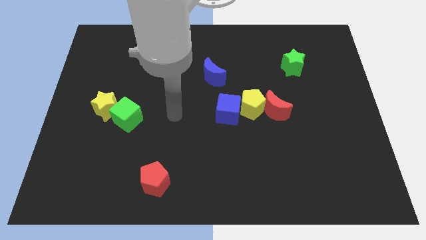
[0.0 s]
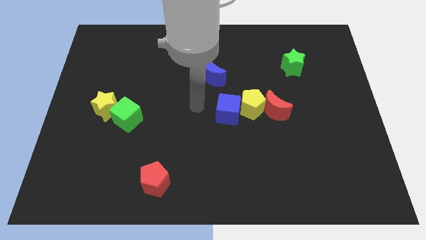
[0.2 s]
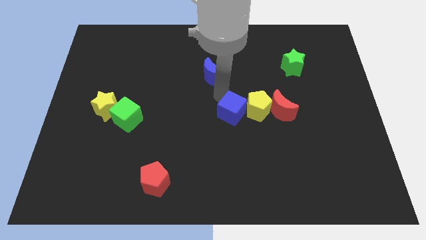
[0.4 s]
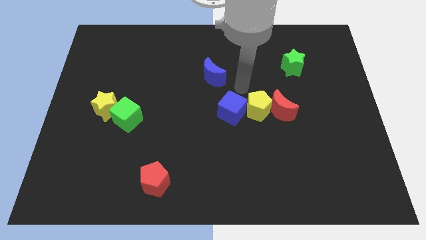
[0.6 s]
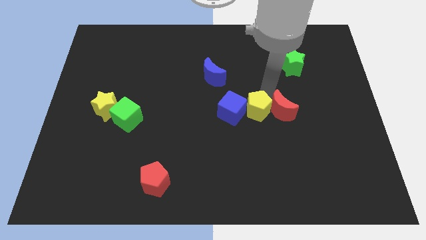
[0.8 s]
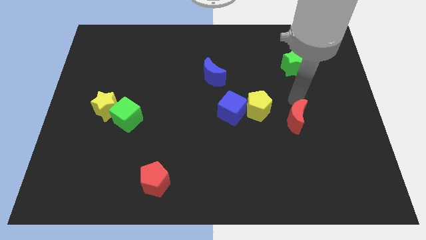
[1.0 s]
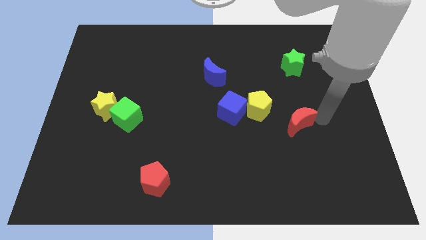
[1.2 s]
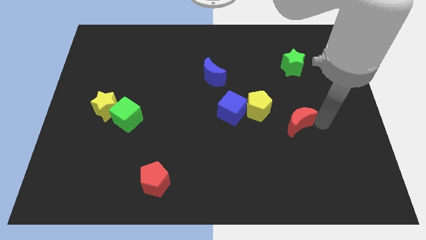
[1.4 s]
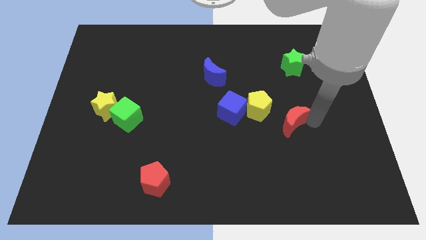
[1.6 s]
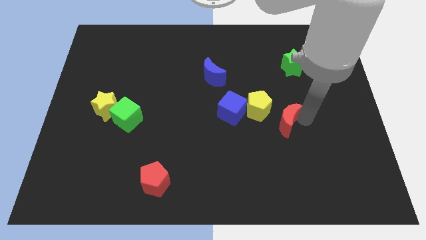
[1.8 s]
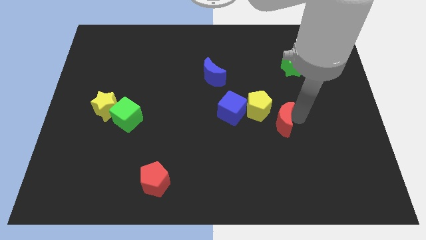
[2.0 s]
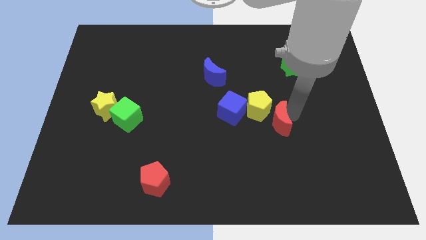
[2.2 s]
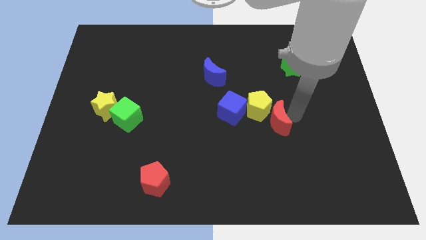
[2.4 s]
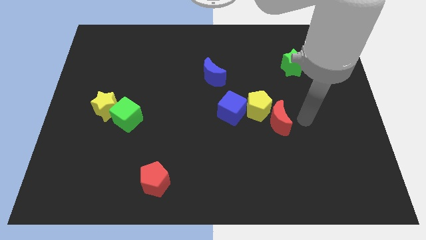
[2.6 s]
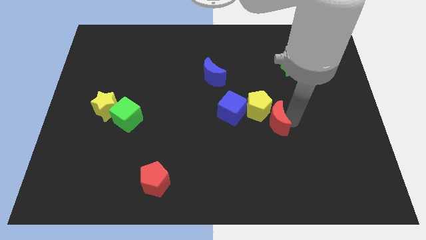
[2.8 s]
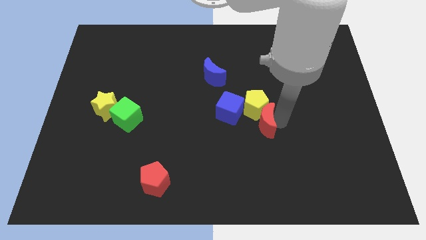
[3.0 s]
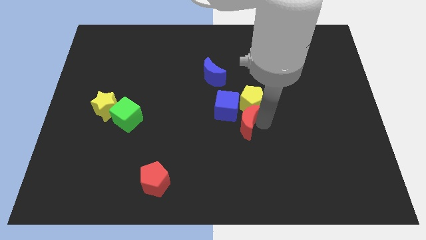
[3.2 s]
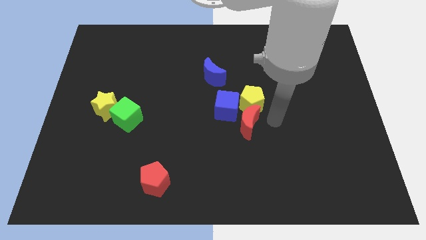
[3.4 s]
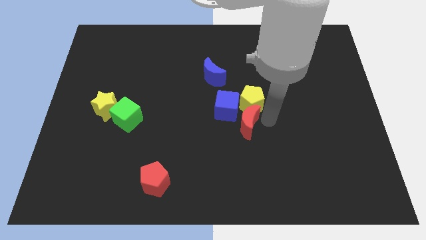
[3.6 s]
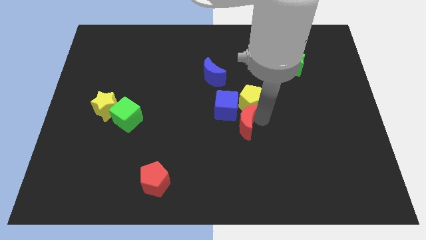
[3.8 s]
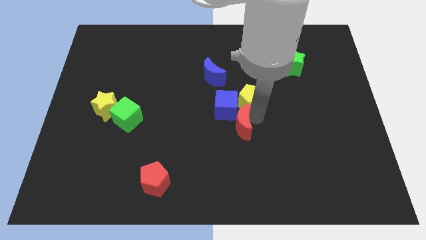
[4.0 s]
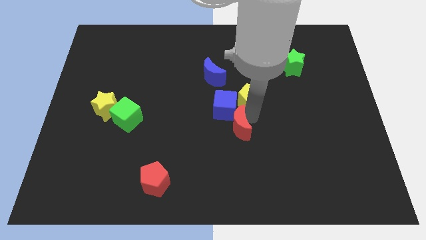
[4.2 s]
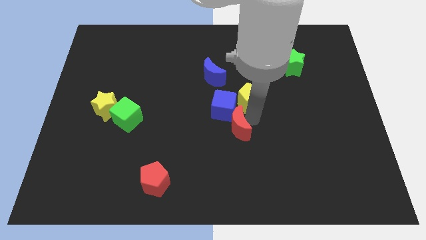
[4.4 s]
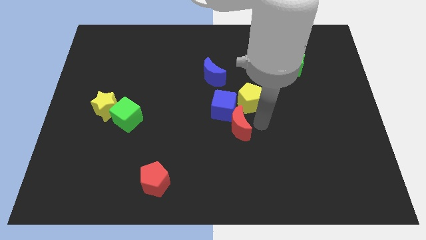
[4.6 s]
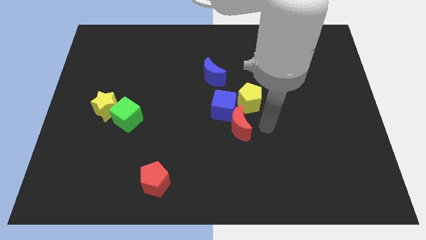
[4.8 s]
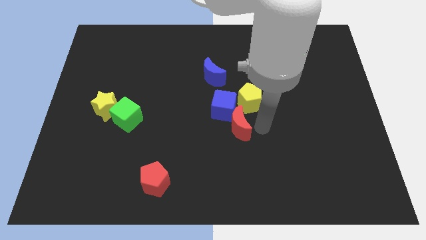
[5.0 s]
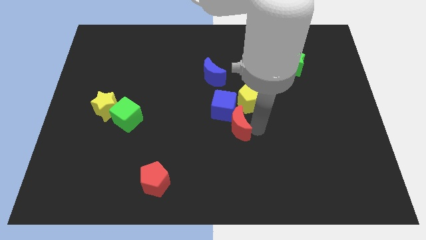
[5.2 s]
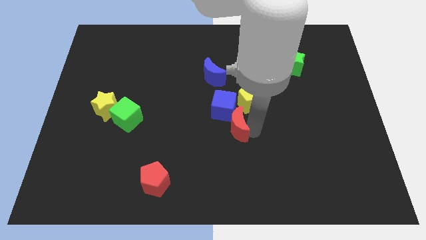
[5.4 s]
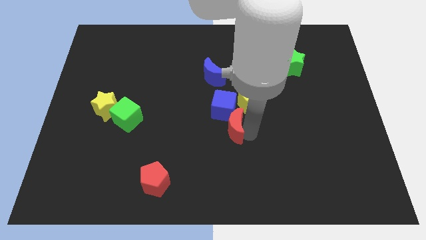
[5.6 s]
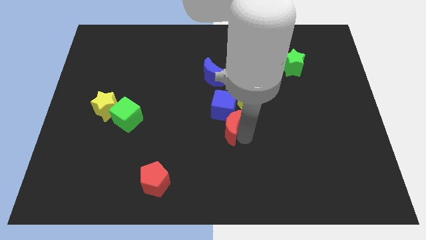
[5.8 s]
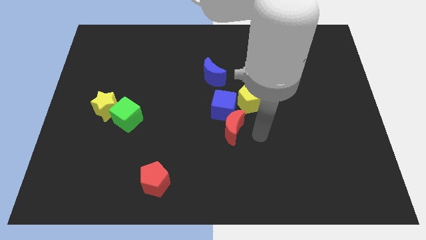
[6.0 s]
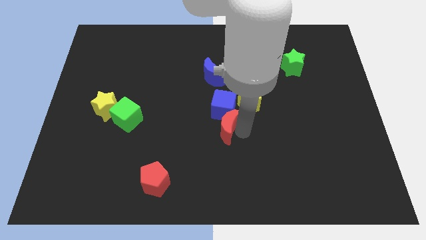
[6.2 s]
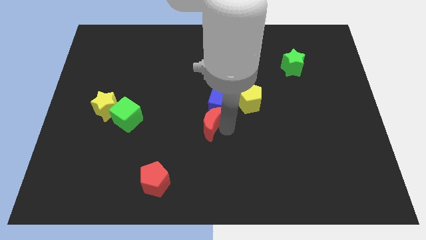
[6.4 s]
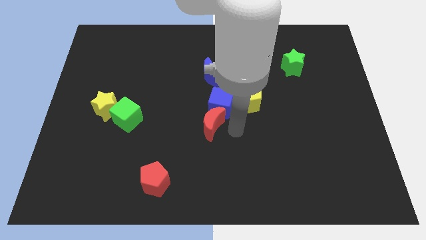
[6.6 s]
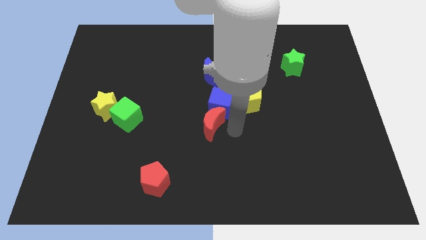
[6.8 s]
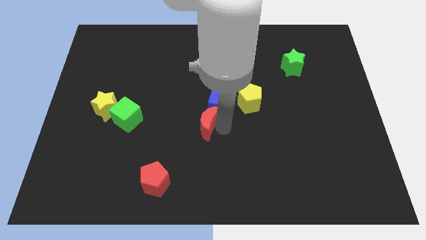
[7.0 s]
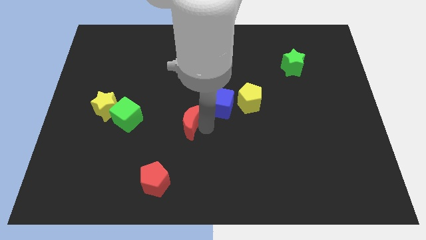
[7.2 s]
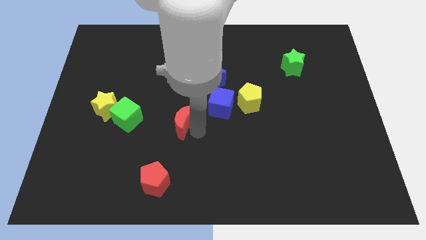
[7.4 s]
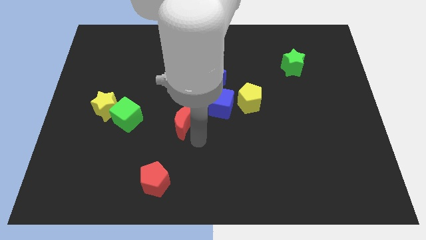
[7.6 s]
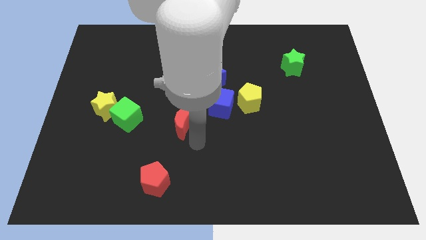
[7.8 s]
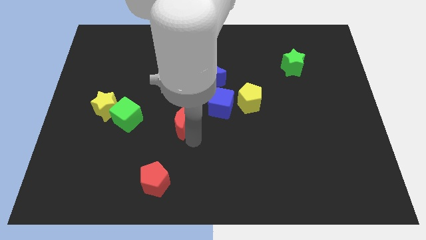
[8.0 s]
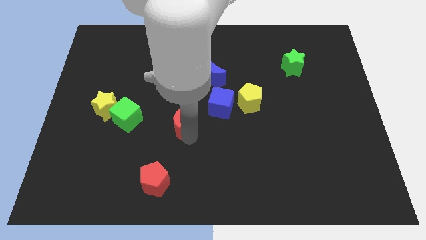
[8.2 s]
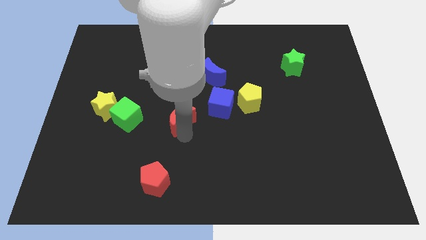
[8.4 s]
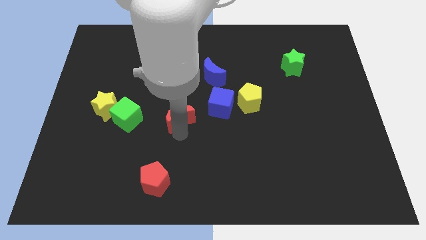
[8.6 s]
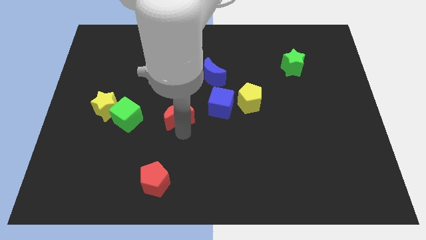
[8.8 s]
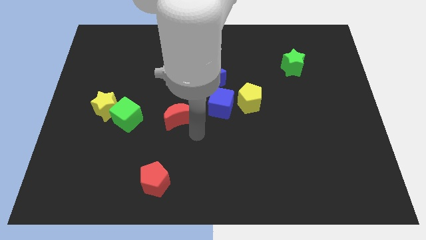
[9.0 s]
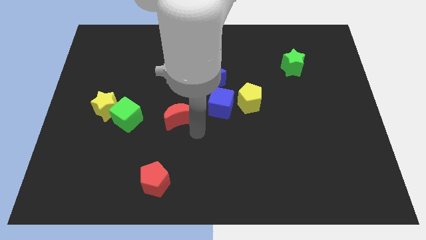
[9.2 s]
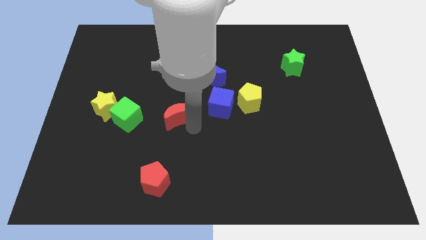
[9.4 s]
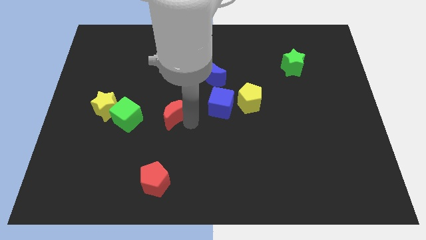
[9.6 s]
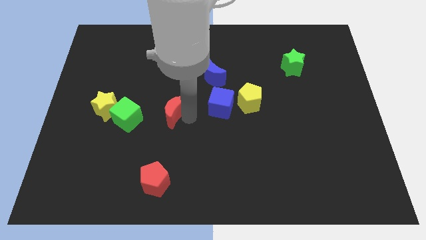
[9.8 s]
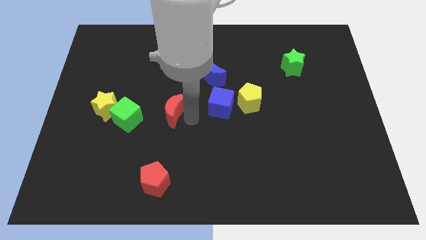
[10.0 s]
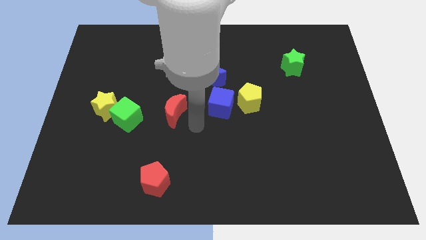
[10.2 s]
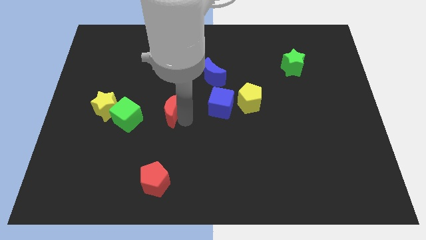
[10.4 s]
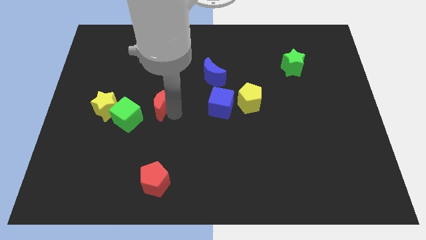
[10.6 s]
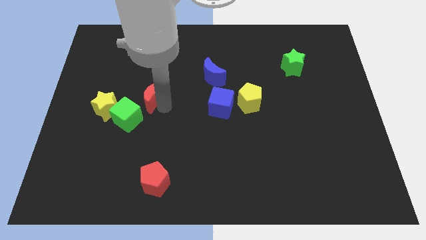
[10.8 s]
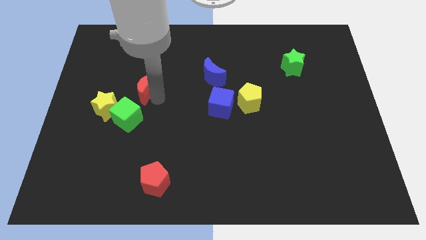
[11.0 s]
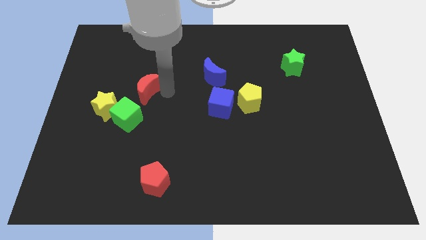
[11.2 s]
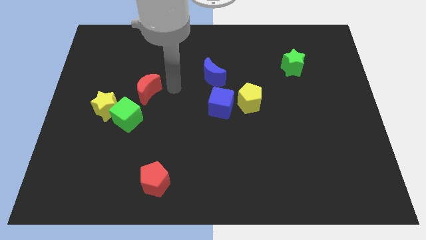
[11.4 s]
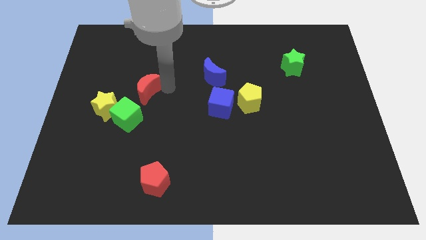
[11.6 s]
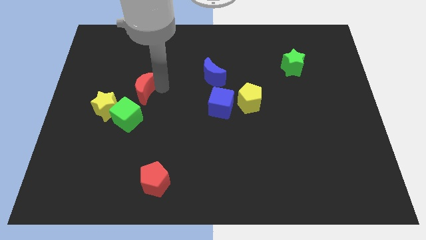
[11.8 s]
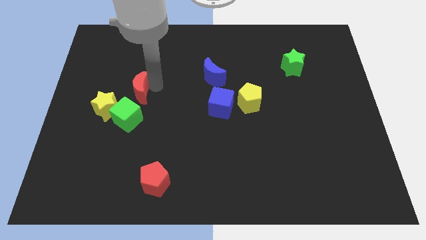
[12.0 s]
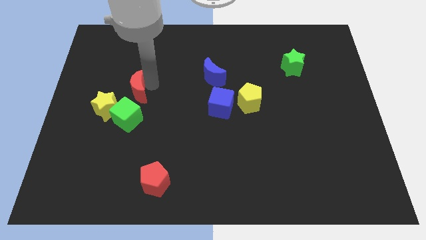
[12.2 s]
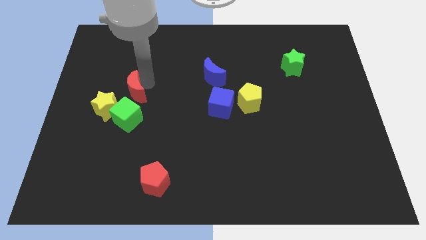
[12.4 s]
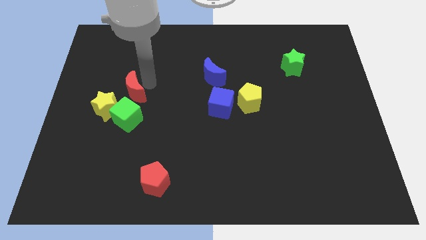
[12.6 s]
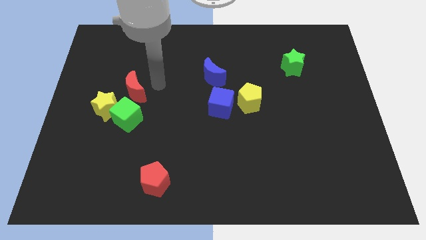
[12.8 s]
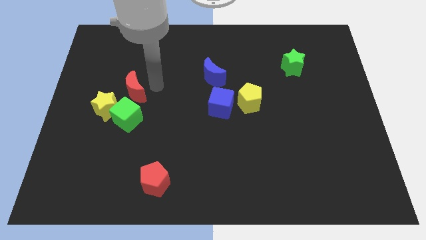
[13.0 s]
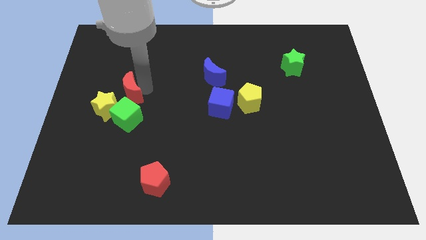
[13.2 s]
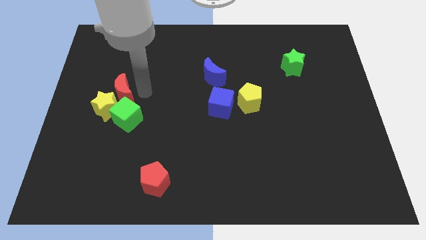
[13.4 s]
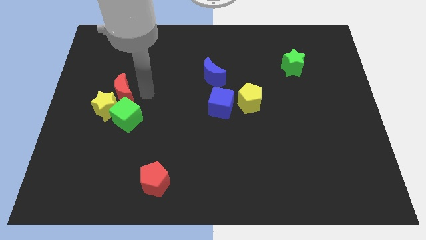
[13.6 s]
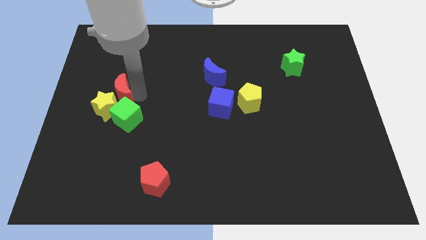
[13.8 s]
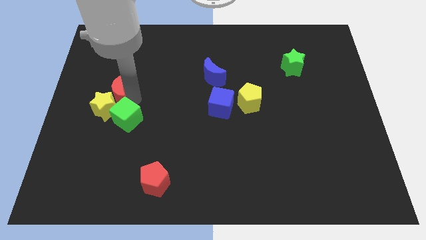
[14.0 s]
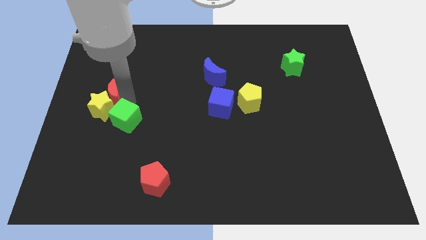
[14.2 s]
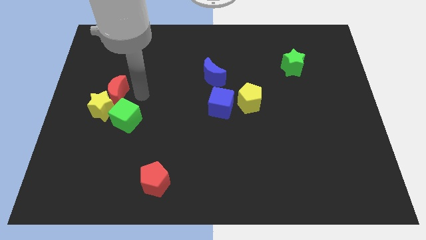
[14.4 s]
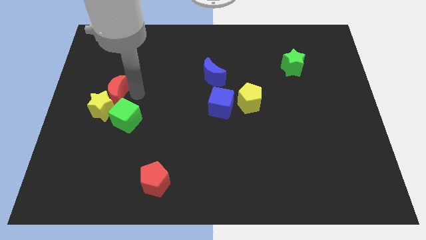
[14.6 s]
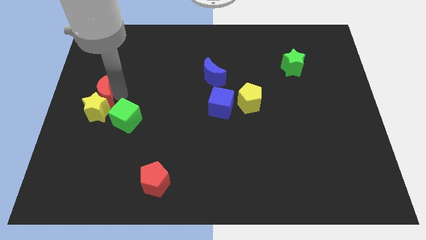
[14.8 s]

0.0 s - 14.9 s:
push the red moon to the left side
